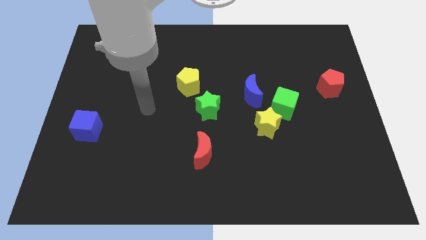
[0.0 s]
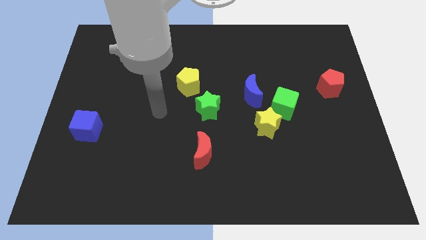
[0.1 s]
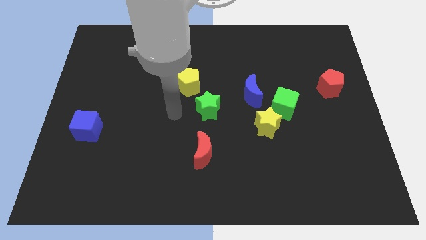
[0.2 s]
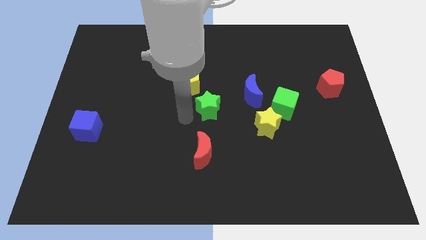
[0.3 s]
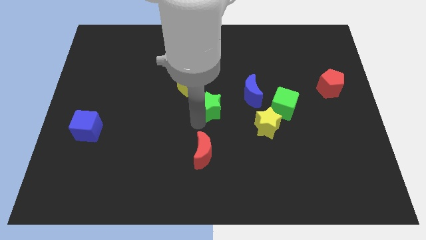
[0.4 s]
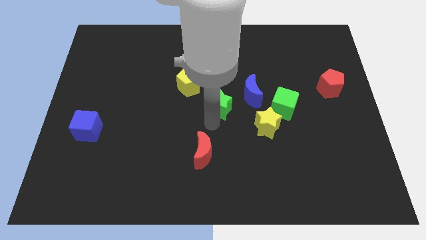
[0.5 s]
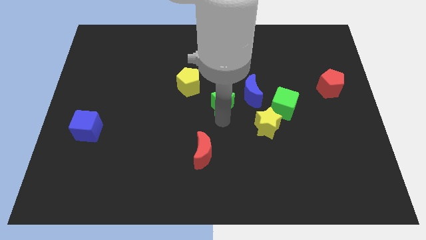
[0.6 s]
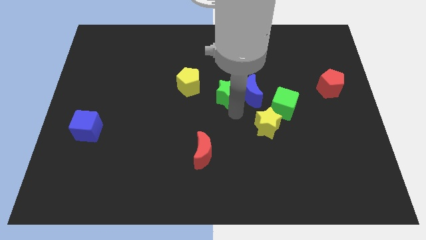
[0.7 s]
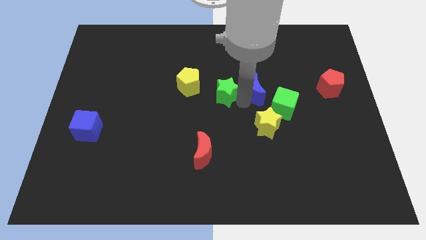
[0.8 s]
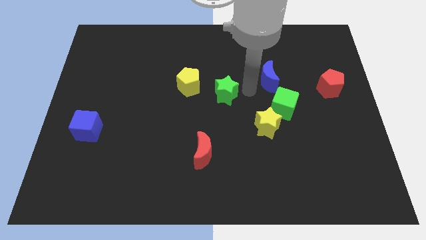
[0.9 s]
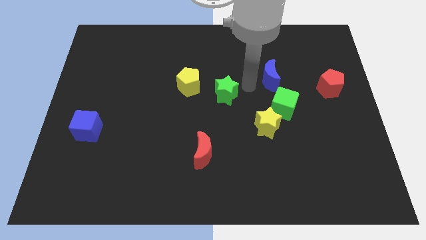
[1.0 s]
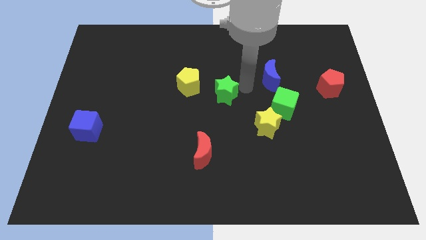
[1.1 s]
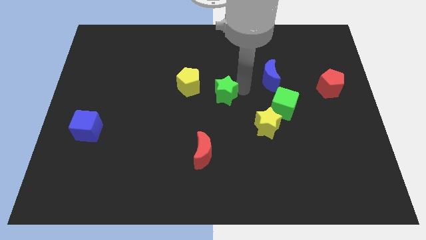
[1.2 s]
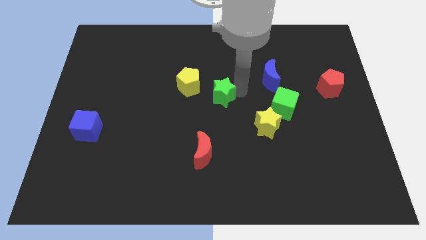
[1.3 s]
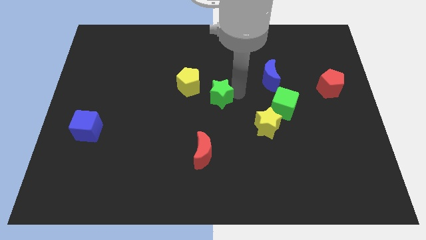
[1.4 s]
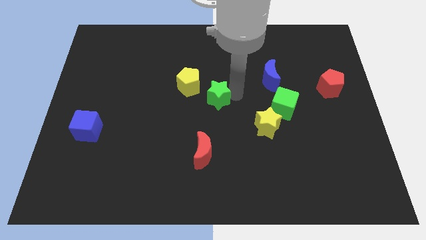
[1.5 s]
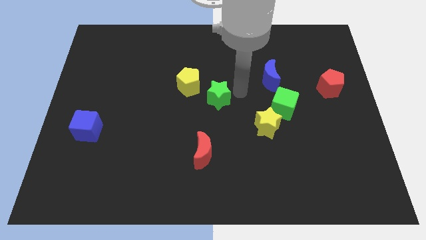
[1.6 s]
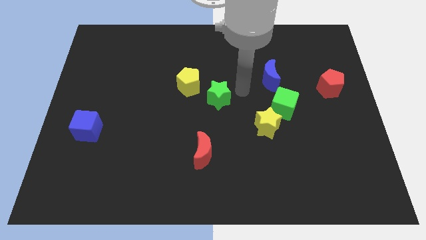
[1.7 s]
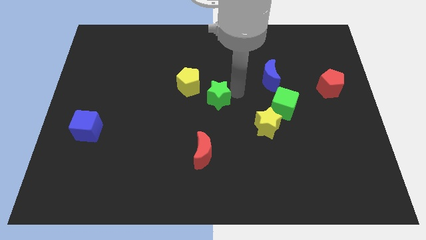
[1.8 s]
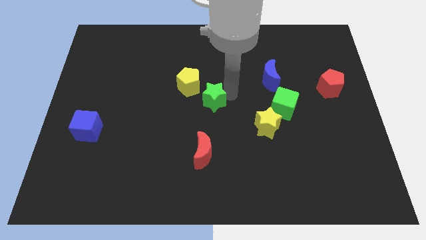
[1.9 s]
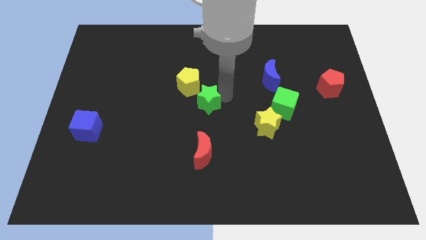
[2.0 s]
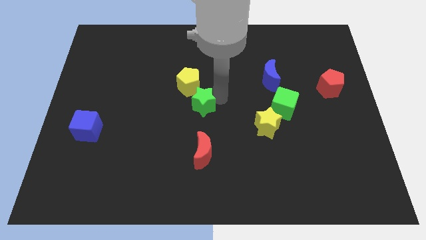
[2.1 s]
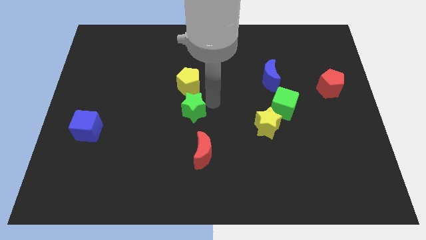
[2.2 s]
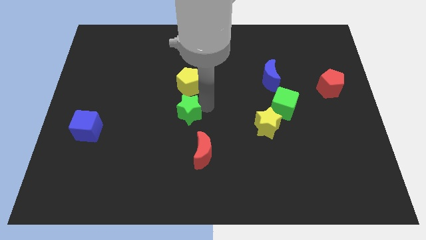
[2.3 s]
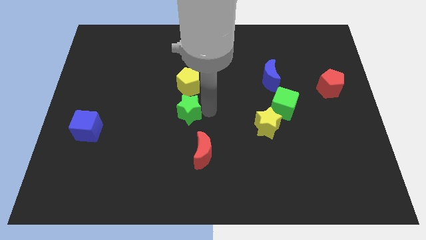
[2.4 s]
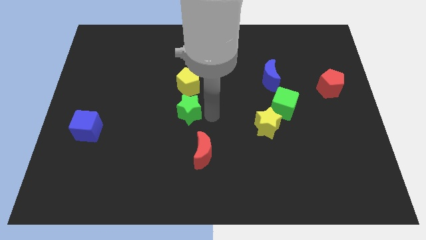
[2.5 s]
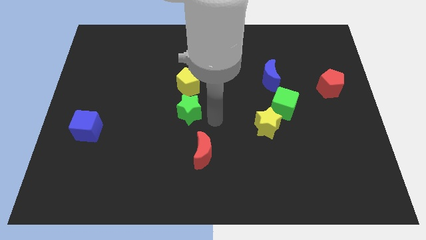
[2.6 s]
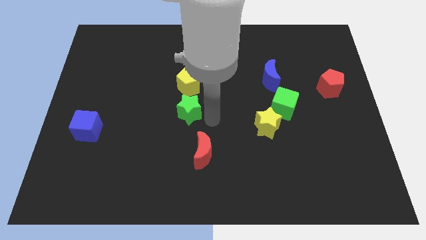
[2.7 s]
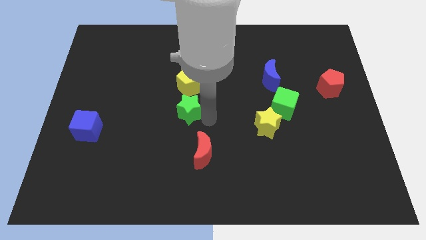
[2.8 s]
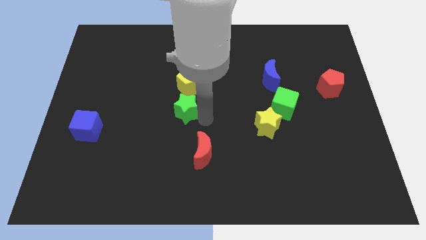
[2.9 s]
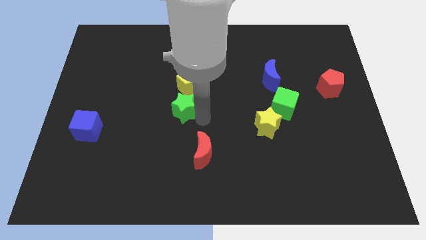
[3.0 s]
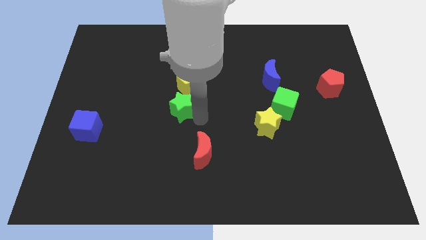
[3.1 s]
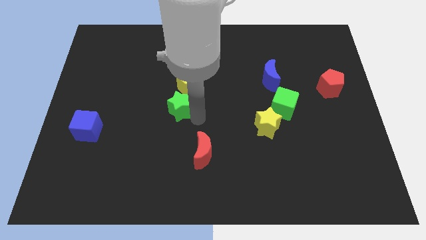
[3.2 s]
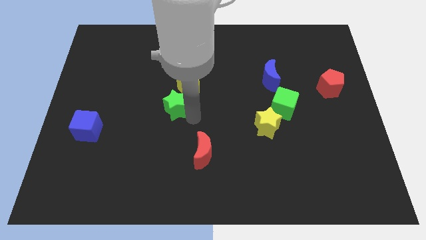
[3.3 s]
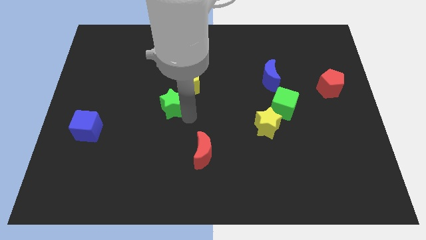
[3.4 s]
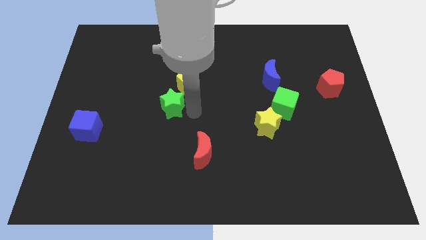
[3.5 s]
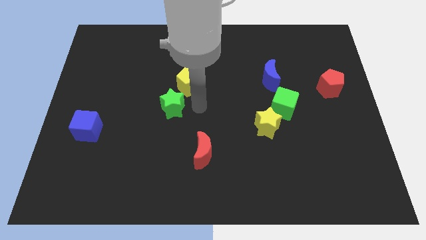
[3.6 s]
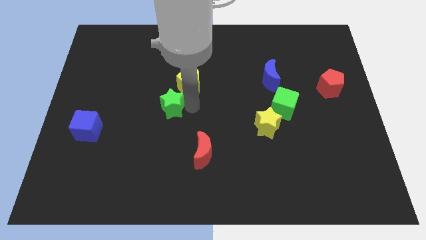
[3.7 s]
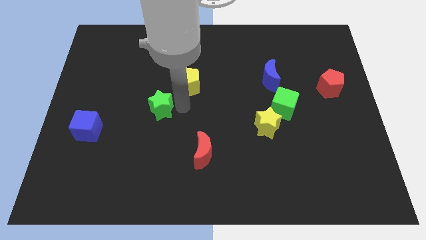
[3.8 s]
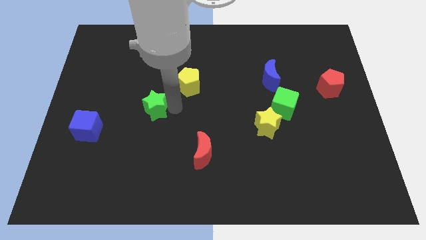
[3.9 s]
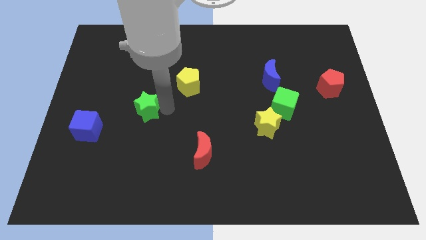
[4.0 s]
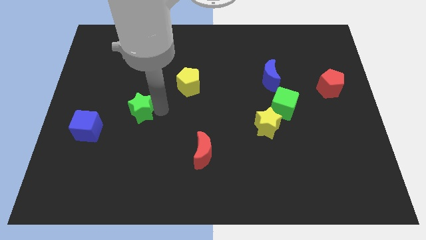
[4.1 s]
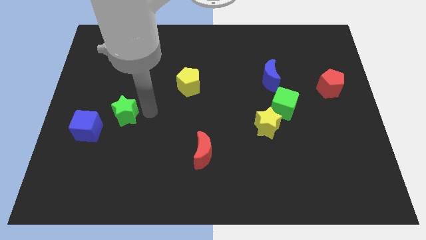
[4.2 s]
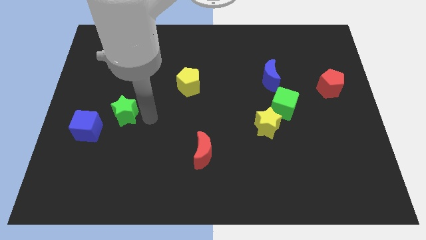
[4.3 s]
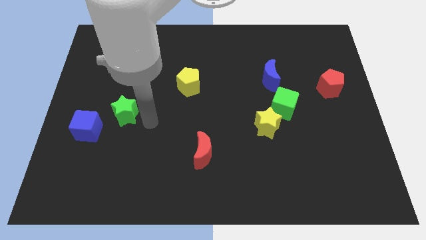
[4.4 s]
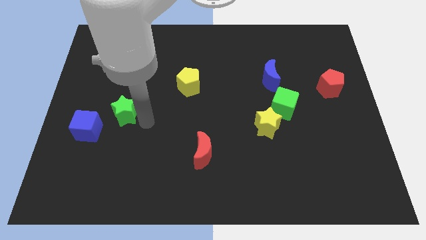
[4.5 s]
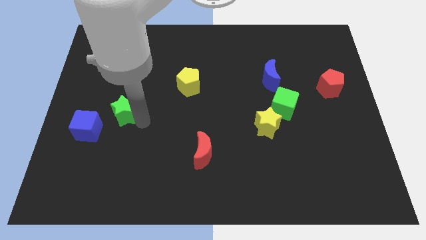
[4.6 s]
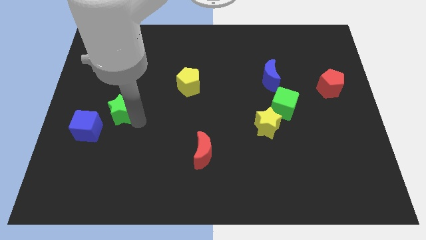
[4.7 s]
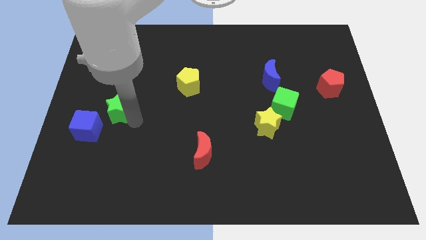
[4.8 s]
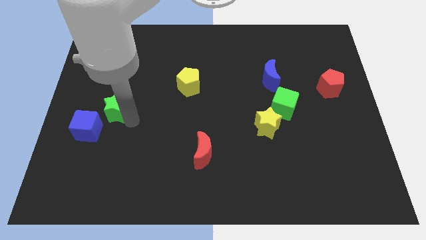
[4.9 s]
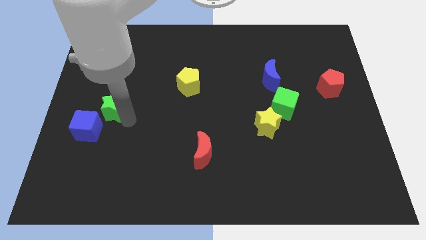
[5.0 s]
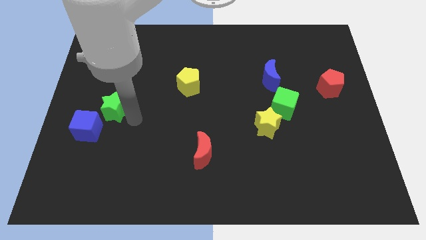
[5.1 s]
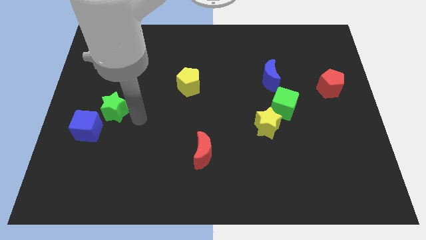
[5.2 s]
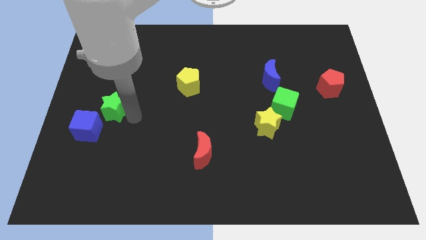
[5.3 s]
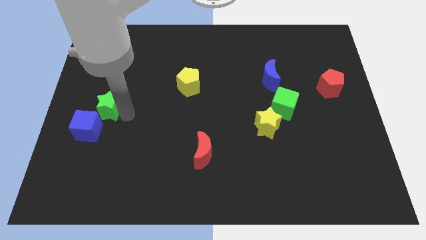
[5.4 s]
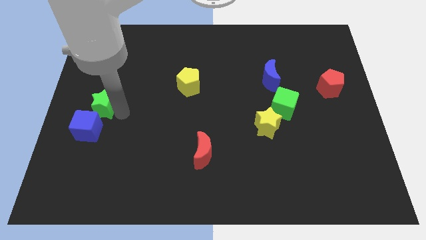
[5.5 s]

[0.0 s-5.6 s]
put the green star to the left side of the board

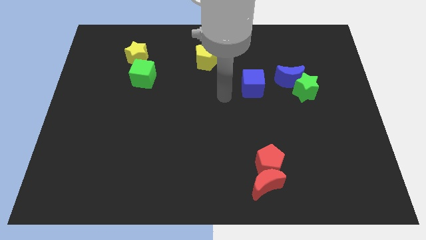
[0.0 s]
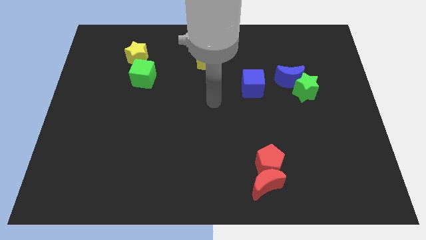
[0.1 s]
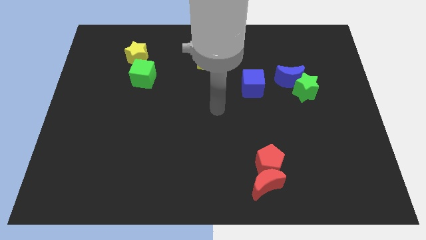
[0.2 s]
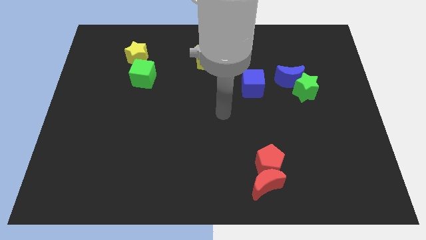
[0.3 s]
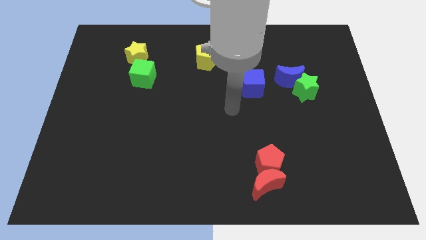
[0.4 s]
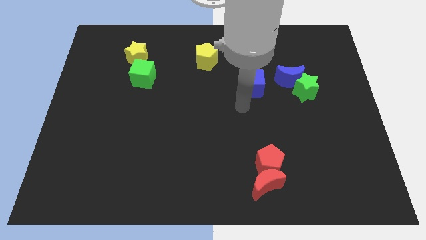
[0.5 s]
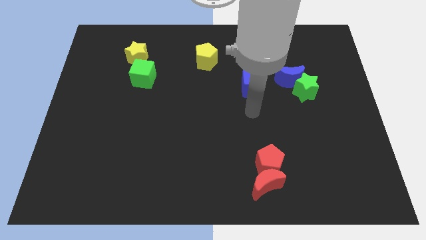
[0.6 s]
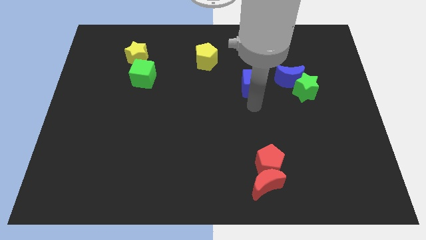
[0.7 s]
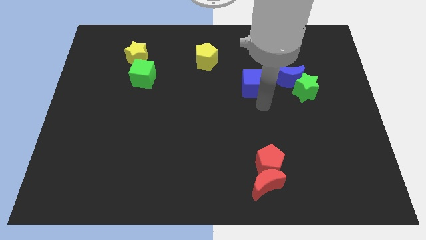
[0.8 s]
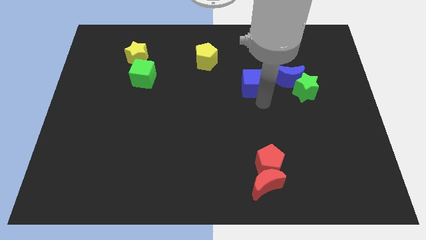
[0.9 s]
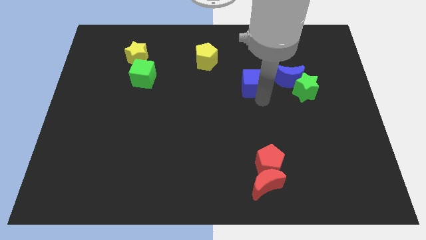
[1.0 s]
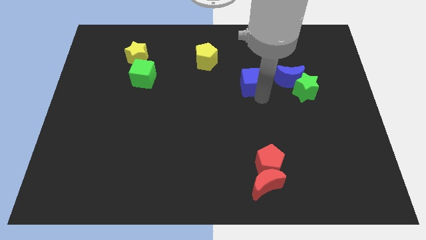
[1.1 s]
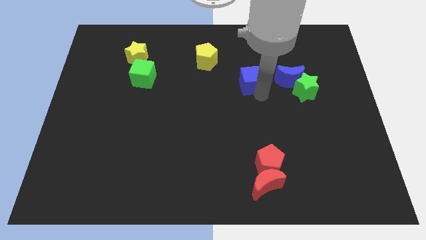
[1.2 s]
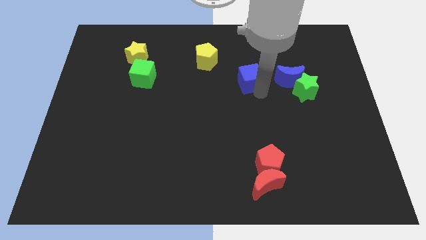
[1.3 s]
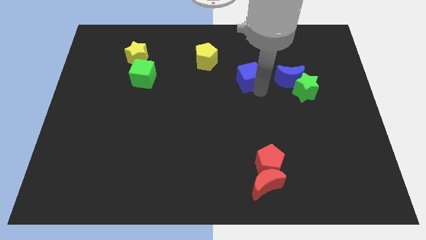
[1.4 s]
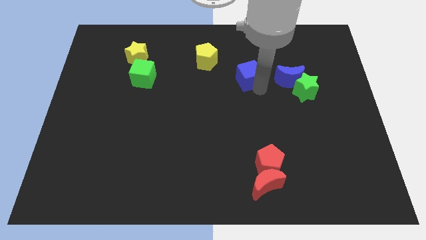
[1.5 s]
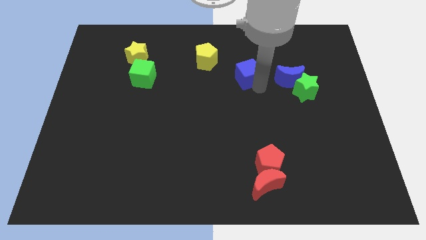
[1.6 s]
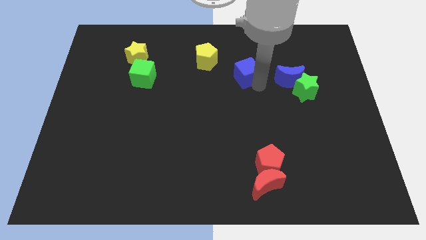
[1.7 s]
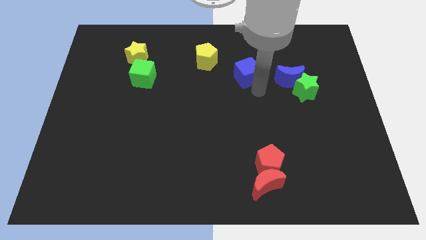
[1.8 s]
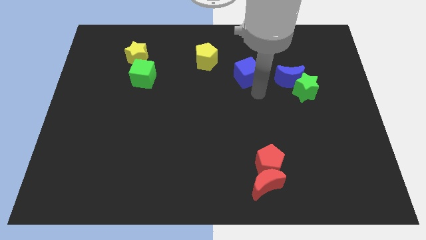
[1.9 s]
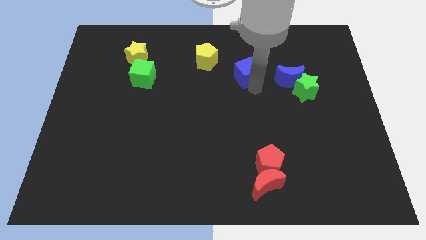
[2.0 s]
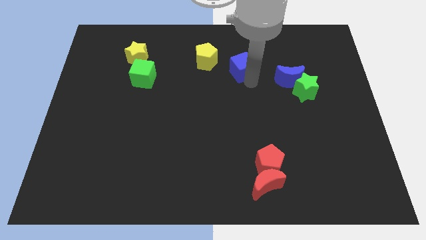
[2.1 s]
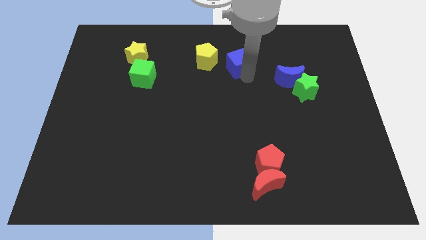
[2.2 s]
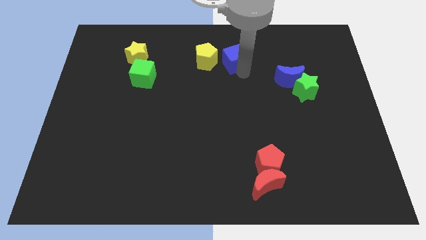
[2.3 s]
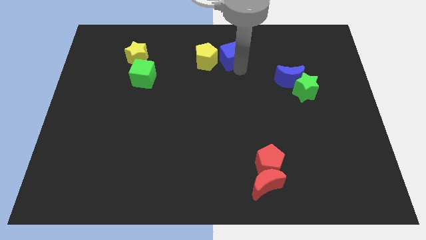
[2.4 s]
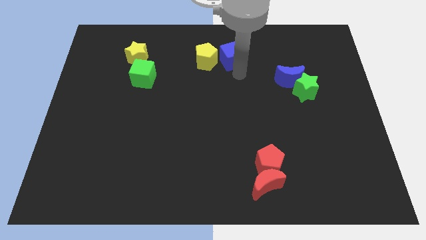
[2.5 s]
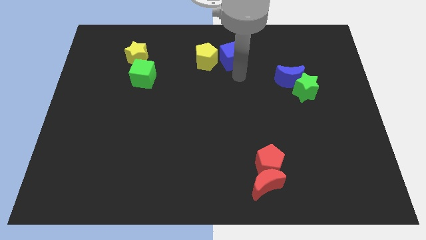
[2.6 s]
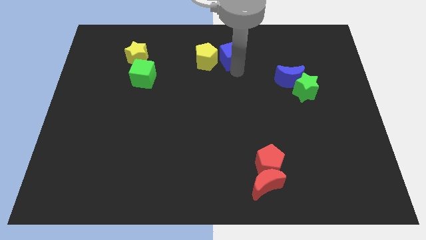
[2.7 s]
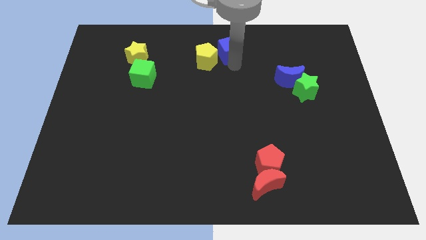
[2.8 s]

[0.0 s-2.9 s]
move the blue cube to the top
